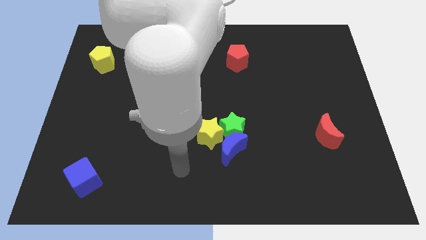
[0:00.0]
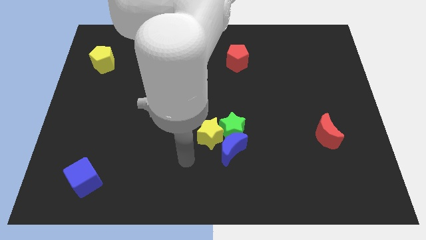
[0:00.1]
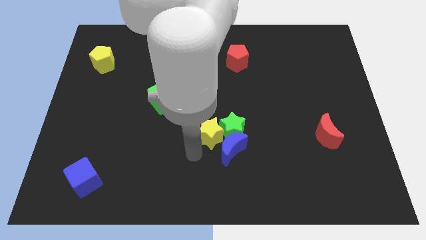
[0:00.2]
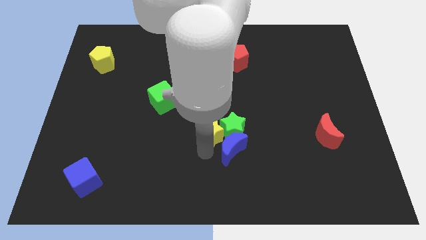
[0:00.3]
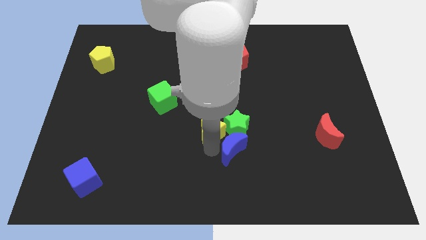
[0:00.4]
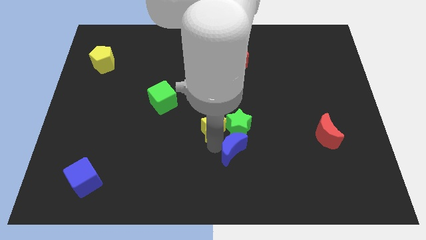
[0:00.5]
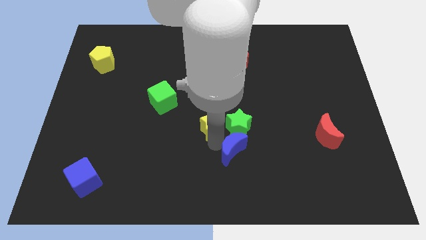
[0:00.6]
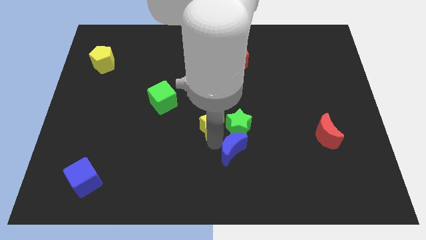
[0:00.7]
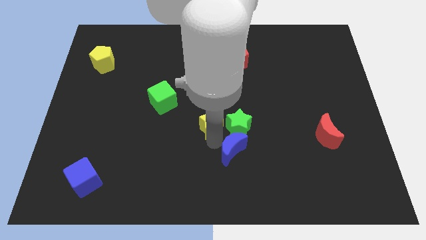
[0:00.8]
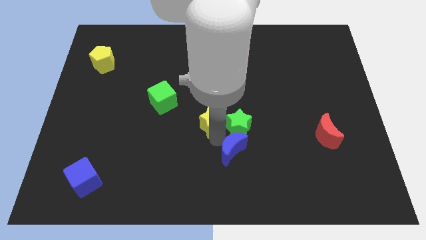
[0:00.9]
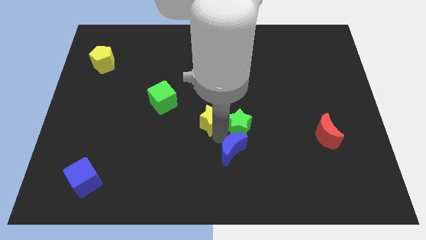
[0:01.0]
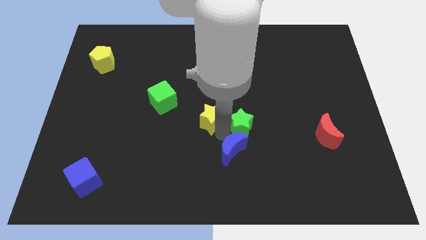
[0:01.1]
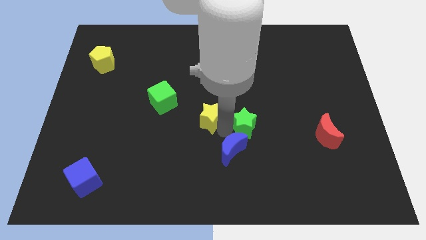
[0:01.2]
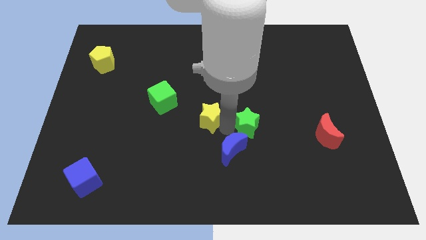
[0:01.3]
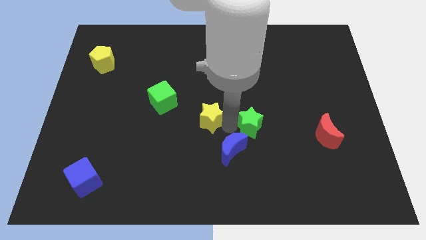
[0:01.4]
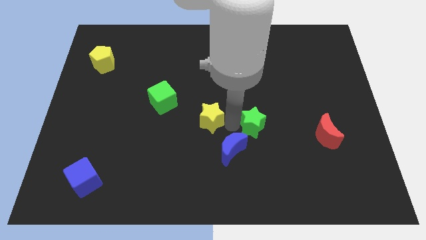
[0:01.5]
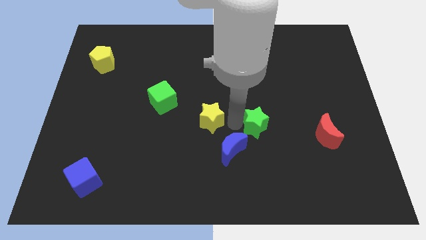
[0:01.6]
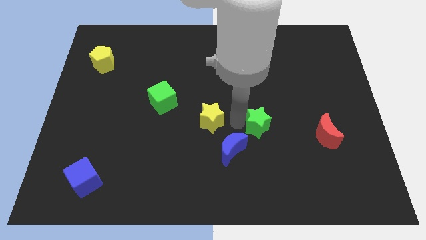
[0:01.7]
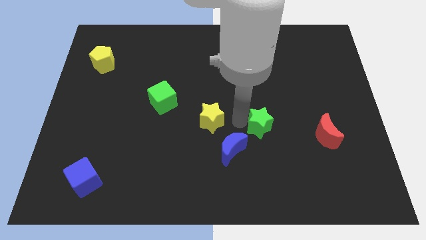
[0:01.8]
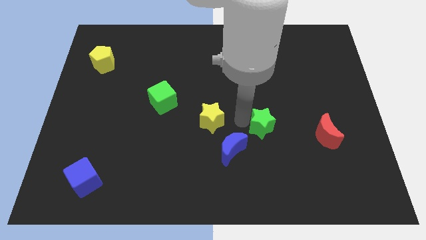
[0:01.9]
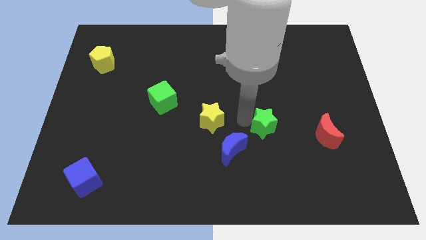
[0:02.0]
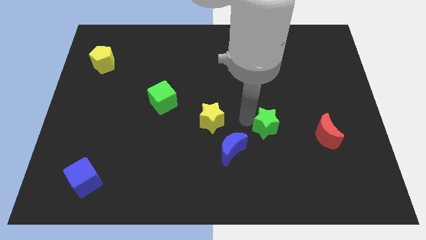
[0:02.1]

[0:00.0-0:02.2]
separate the green star from the blue moon and yellow star

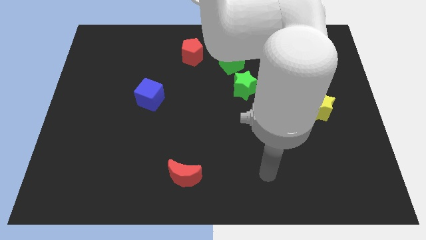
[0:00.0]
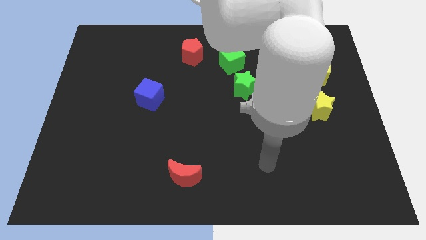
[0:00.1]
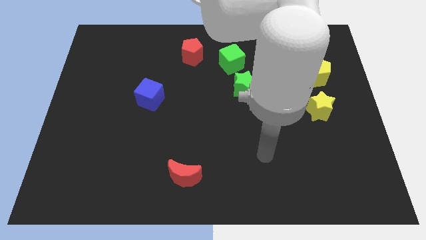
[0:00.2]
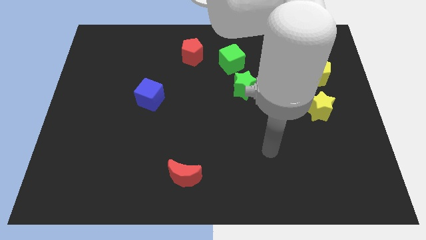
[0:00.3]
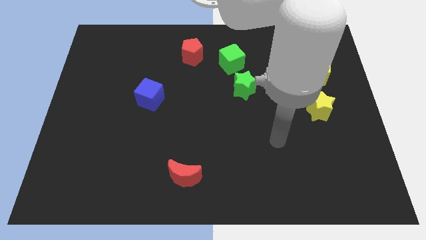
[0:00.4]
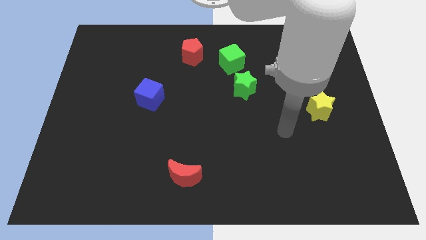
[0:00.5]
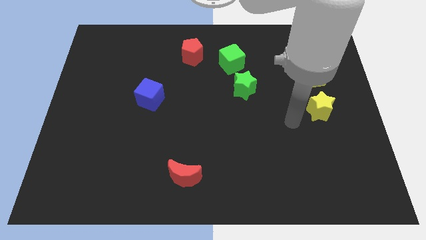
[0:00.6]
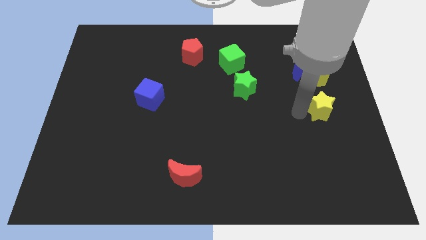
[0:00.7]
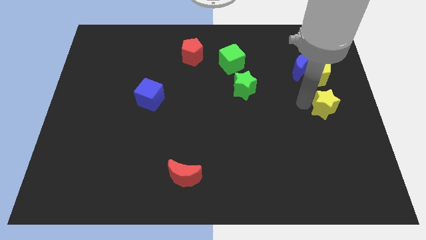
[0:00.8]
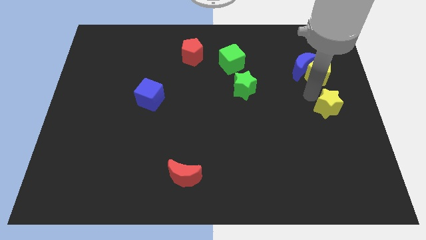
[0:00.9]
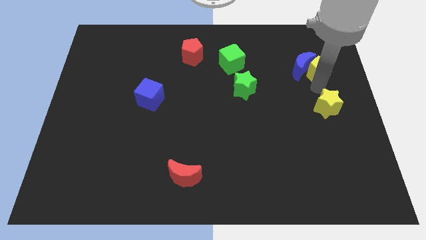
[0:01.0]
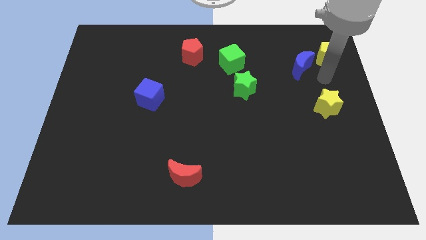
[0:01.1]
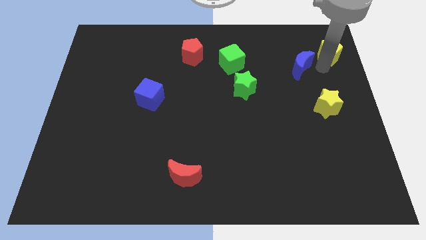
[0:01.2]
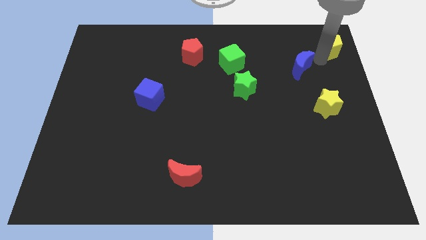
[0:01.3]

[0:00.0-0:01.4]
pull the blue moon apart from the yellow pentagon

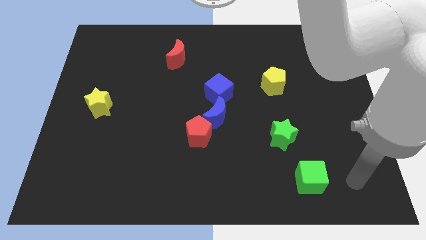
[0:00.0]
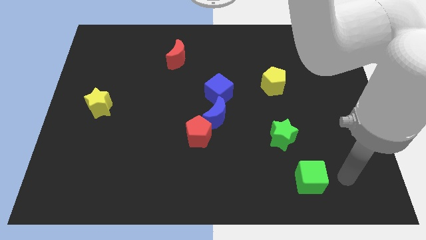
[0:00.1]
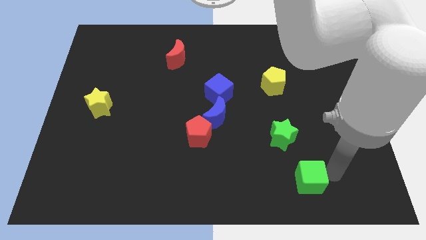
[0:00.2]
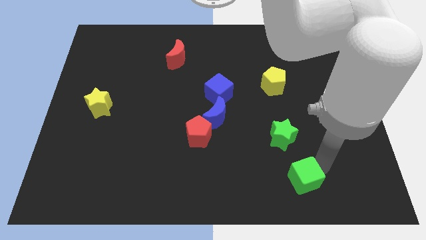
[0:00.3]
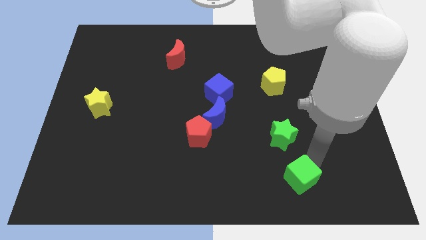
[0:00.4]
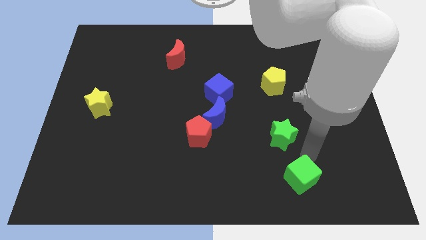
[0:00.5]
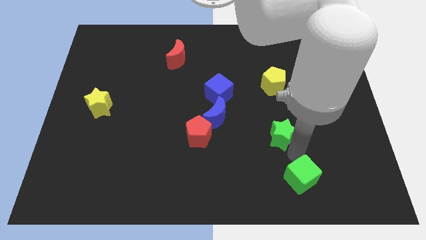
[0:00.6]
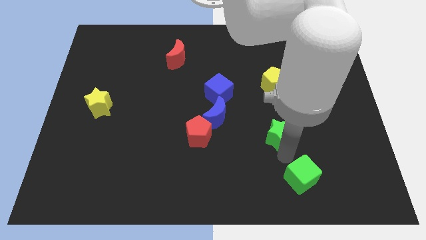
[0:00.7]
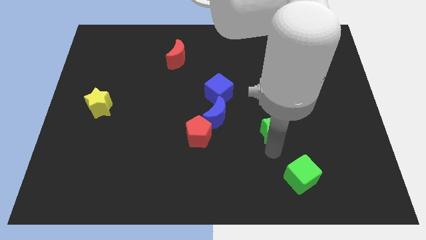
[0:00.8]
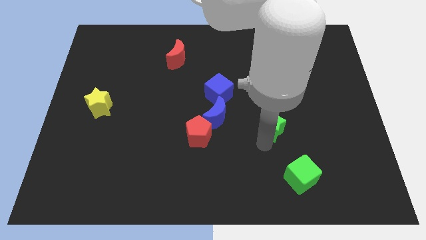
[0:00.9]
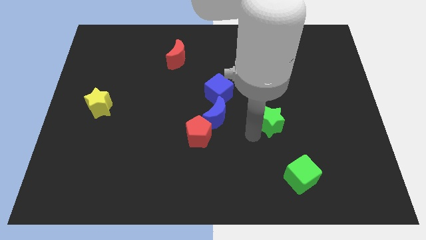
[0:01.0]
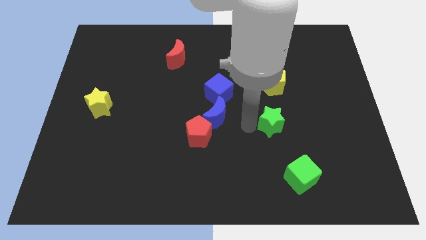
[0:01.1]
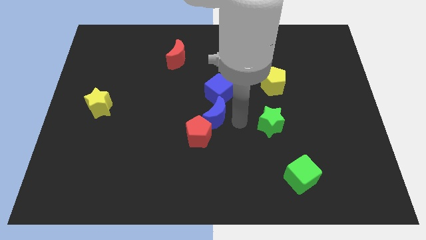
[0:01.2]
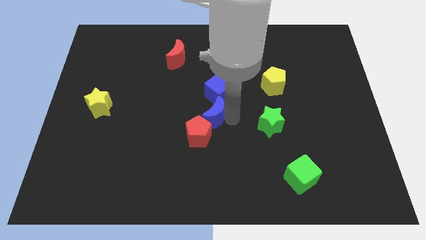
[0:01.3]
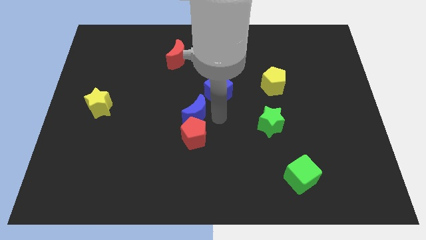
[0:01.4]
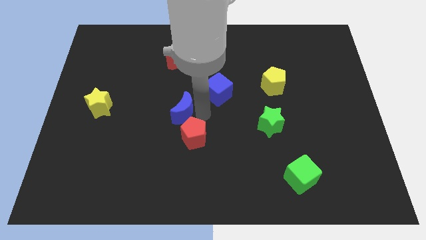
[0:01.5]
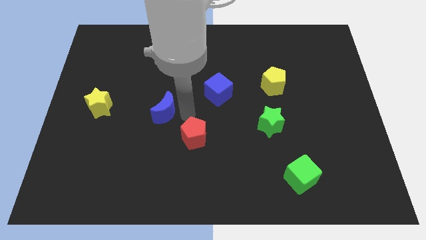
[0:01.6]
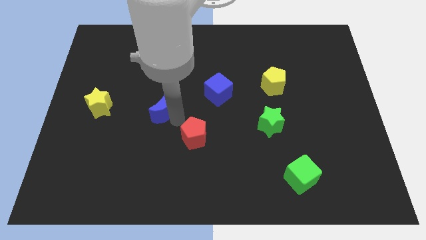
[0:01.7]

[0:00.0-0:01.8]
move the red pentagon away from the blue moon

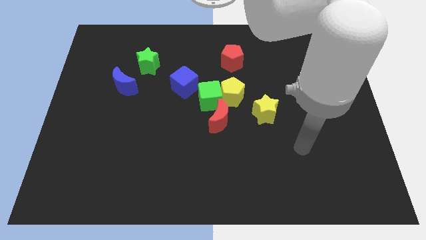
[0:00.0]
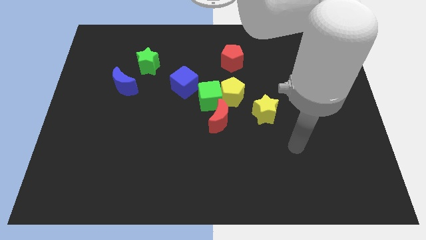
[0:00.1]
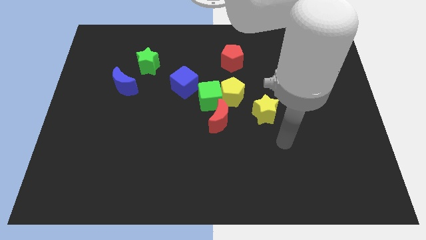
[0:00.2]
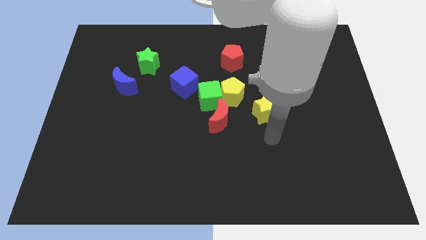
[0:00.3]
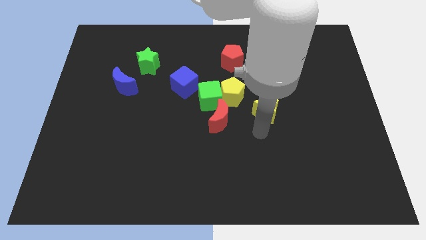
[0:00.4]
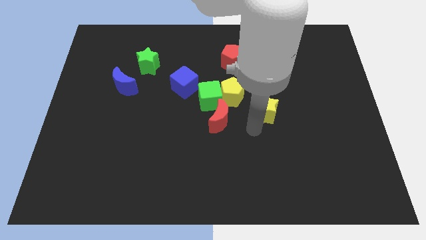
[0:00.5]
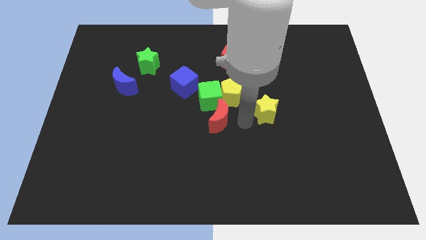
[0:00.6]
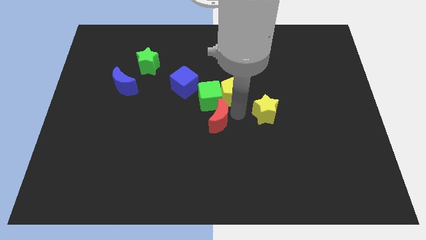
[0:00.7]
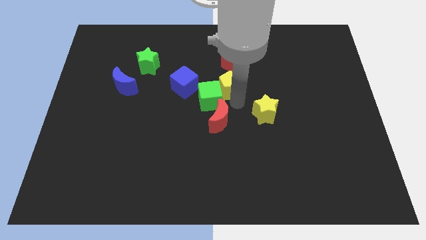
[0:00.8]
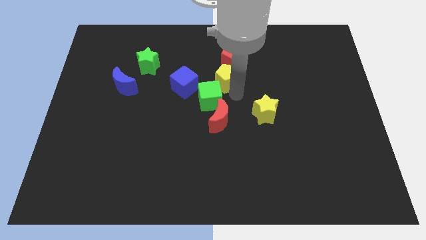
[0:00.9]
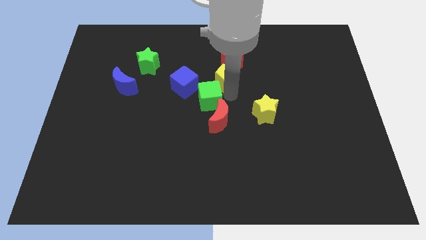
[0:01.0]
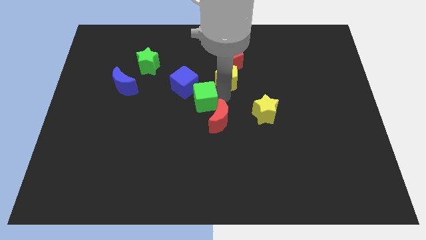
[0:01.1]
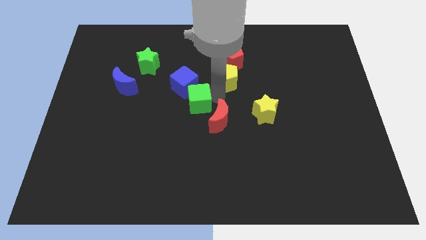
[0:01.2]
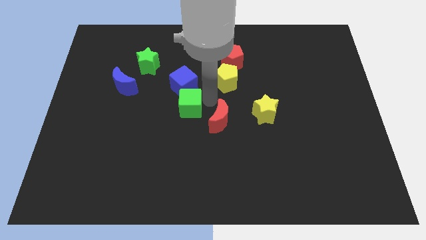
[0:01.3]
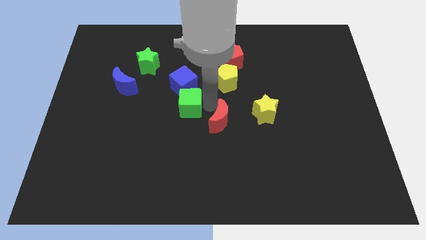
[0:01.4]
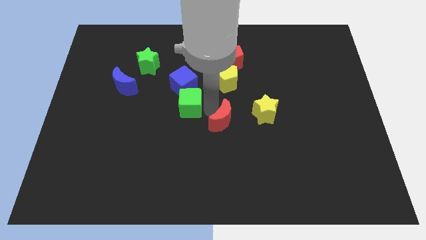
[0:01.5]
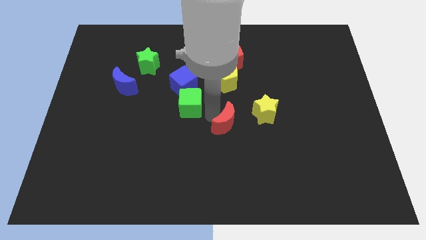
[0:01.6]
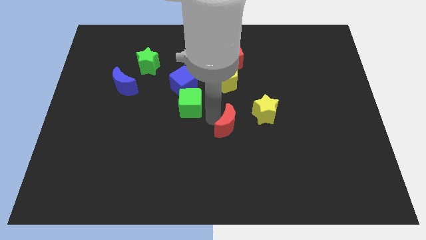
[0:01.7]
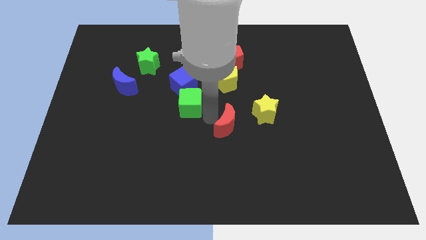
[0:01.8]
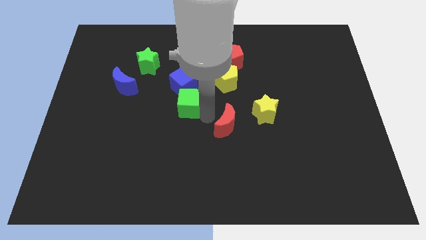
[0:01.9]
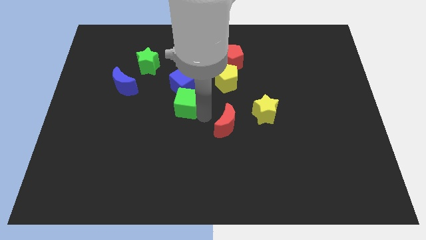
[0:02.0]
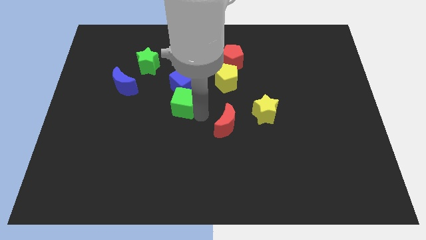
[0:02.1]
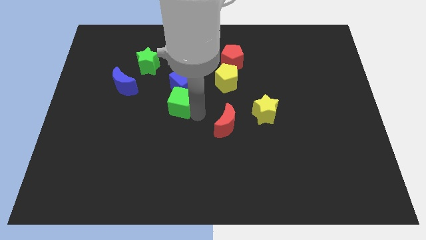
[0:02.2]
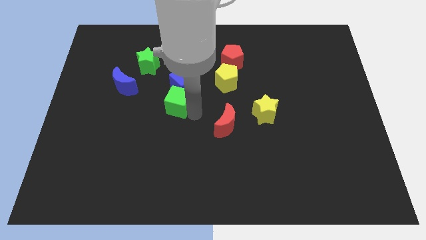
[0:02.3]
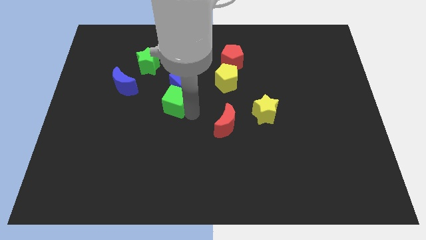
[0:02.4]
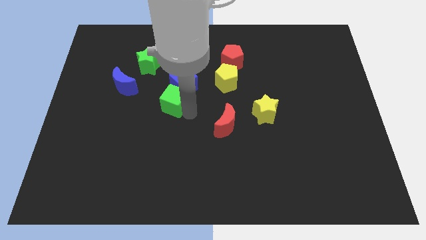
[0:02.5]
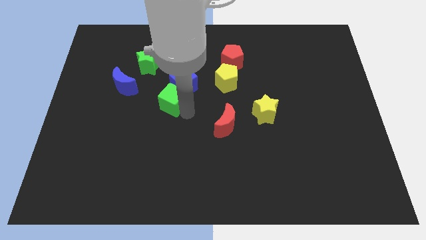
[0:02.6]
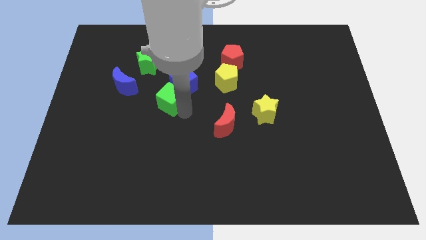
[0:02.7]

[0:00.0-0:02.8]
pull the green cube apart from the group of blocks

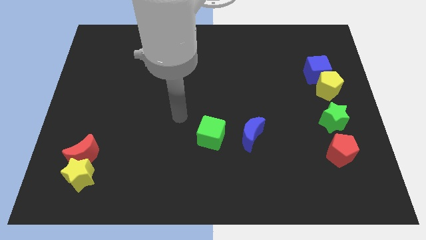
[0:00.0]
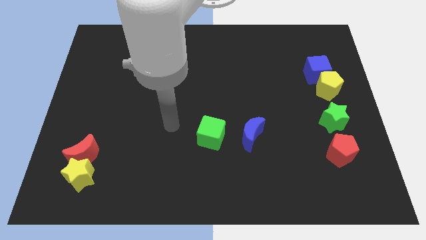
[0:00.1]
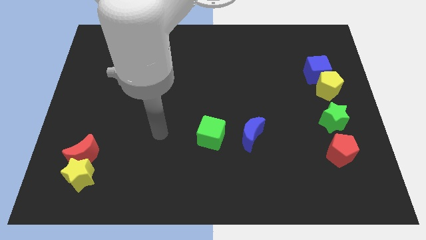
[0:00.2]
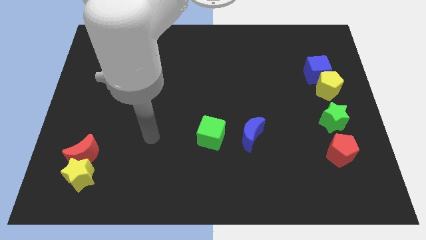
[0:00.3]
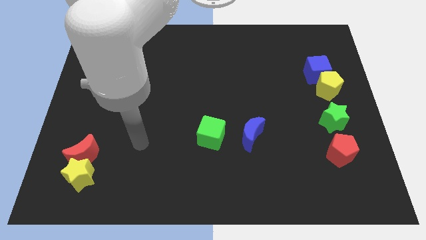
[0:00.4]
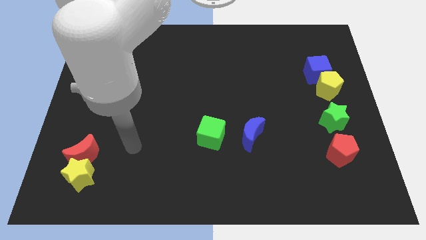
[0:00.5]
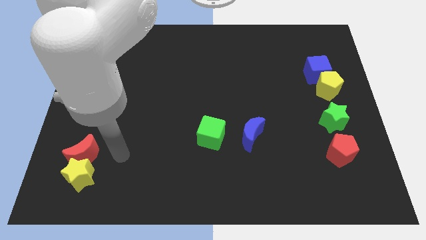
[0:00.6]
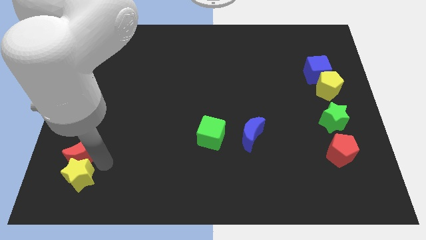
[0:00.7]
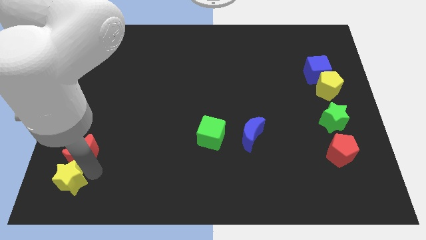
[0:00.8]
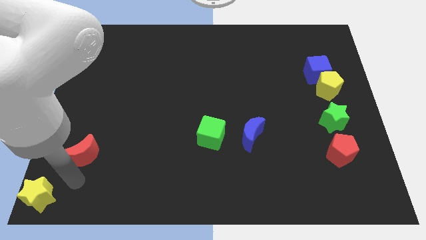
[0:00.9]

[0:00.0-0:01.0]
pull the red moon apart from the yellow star
